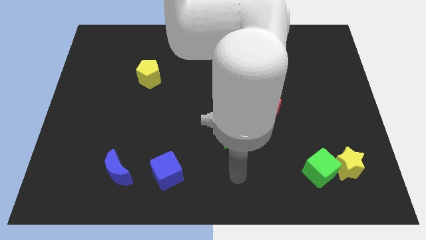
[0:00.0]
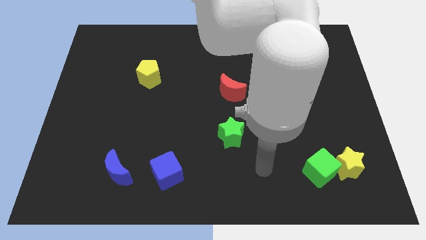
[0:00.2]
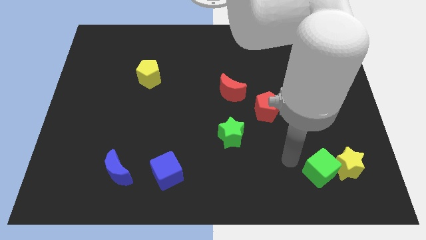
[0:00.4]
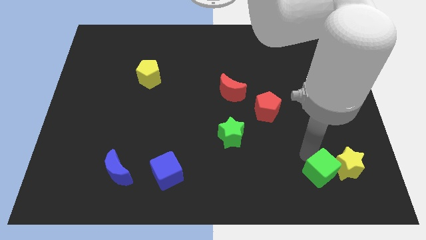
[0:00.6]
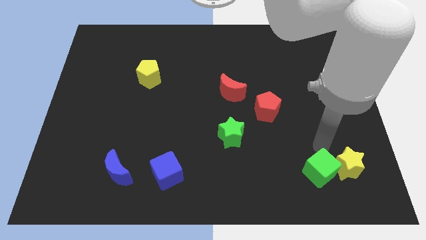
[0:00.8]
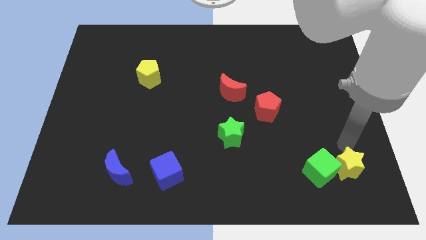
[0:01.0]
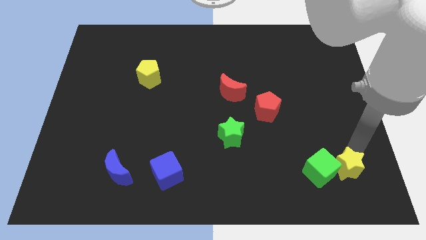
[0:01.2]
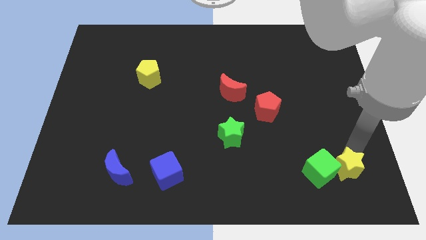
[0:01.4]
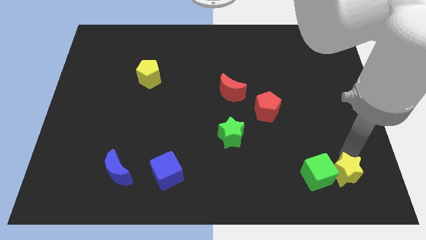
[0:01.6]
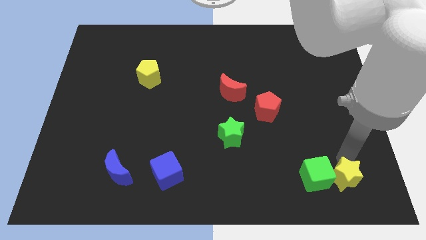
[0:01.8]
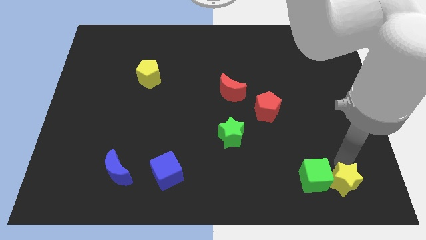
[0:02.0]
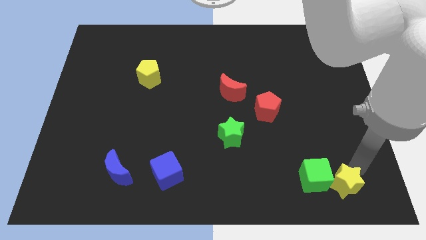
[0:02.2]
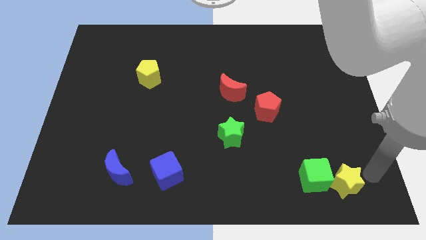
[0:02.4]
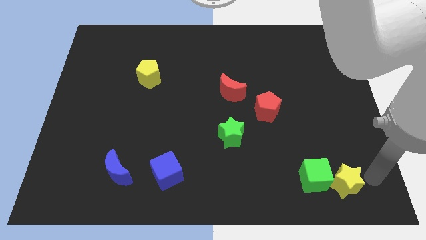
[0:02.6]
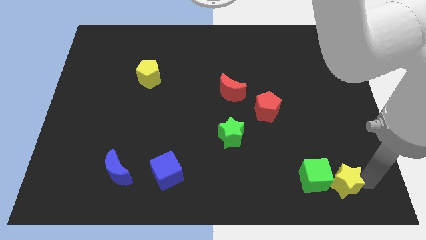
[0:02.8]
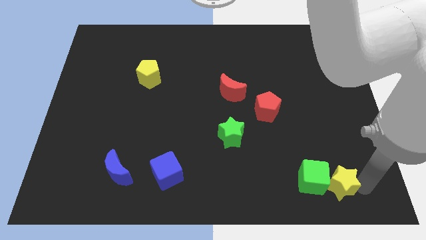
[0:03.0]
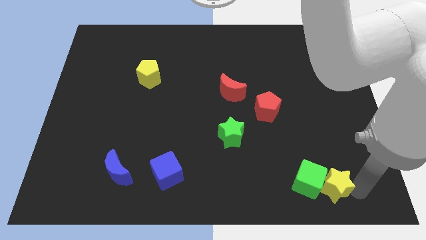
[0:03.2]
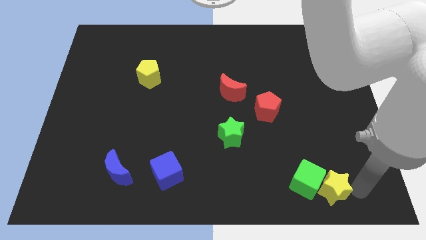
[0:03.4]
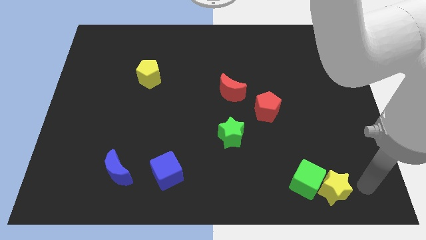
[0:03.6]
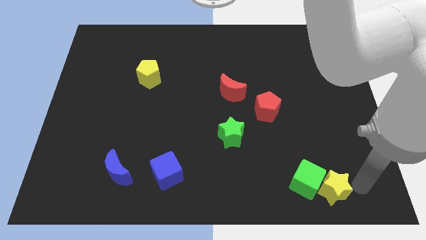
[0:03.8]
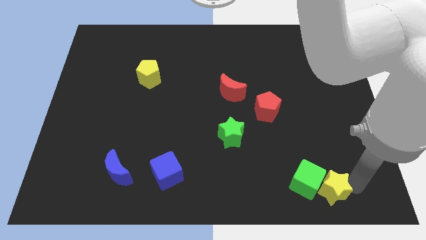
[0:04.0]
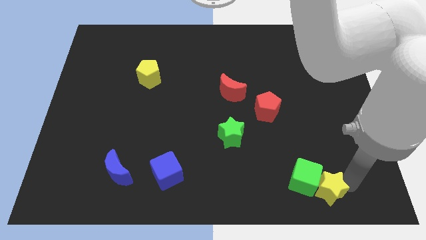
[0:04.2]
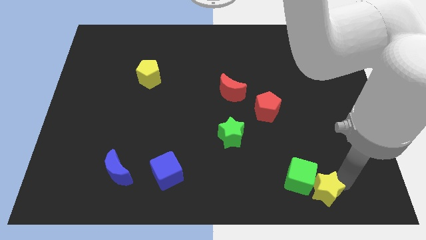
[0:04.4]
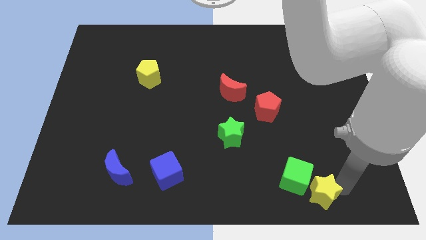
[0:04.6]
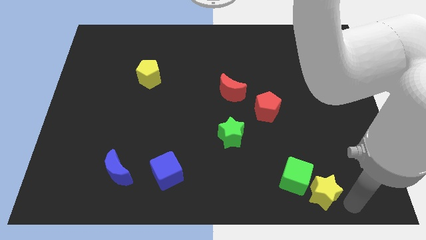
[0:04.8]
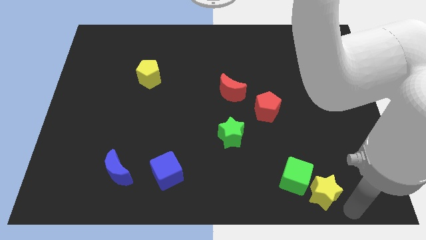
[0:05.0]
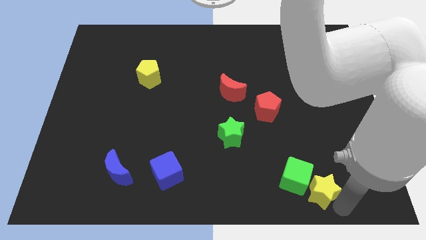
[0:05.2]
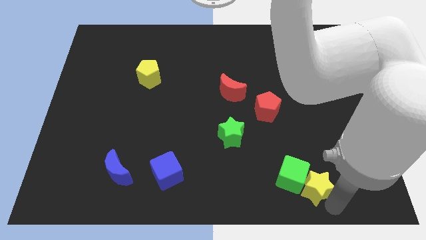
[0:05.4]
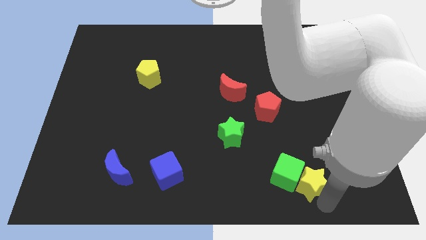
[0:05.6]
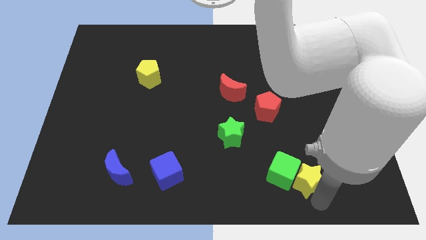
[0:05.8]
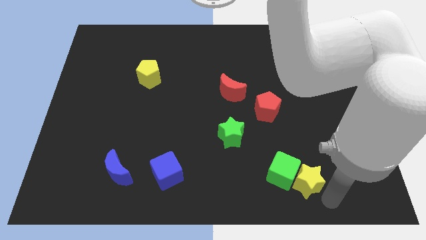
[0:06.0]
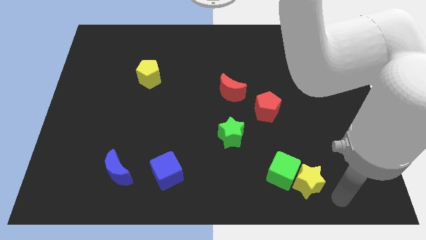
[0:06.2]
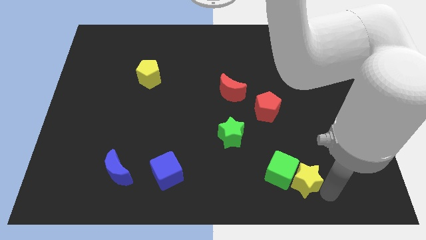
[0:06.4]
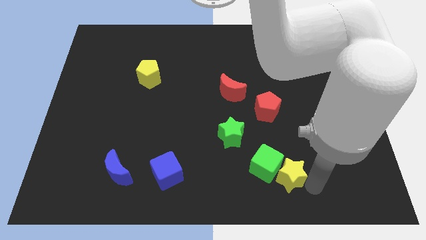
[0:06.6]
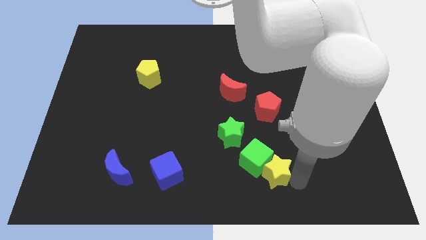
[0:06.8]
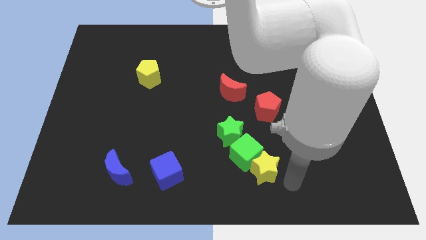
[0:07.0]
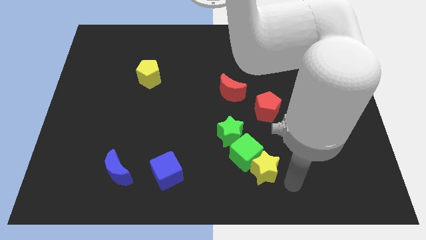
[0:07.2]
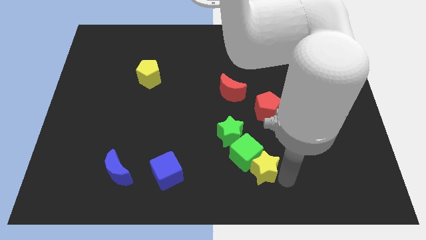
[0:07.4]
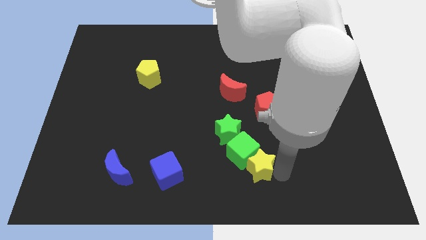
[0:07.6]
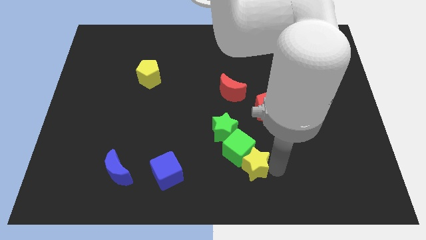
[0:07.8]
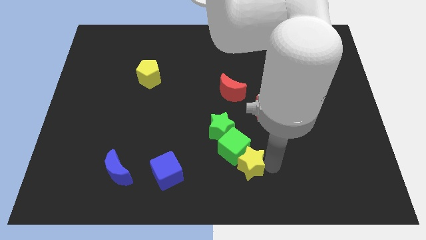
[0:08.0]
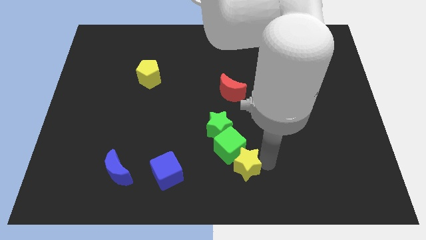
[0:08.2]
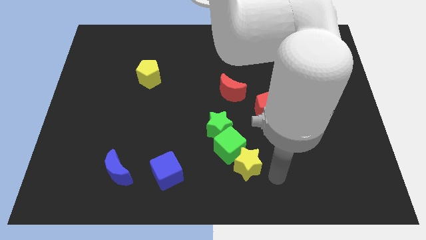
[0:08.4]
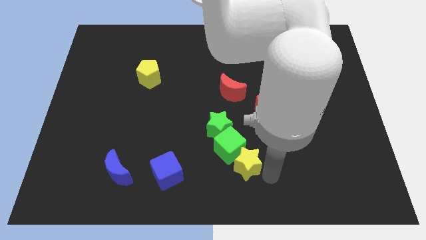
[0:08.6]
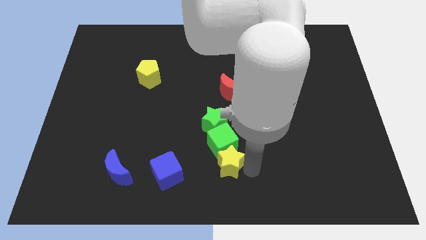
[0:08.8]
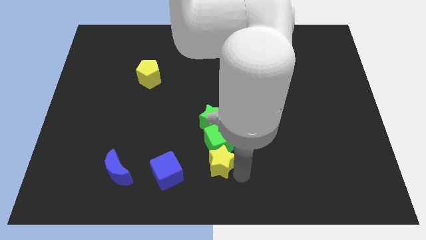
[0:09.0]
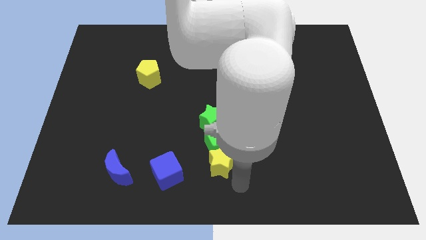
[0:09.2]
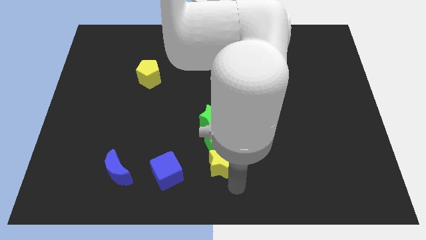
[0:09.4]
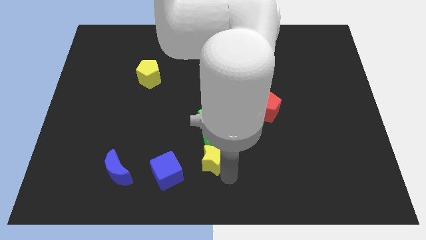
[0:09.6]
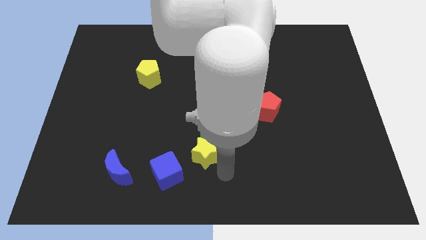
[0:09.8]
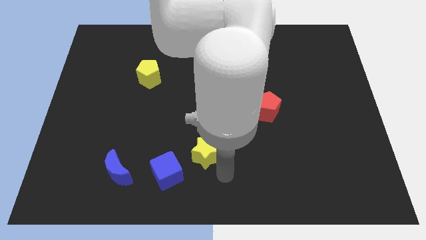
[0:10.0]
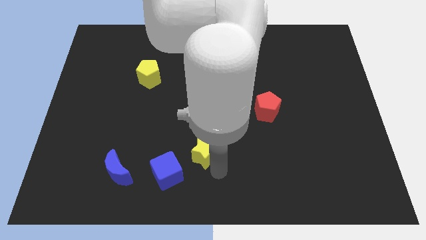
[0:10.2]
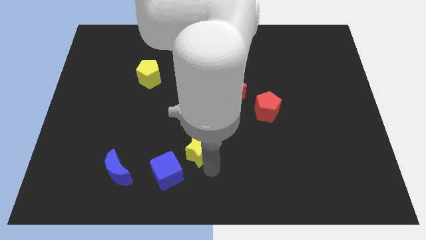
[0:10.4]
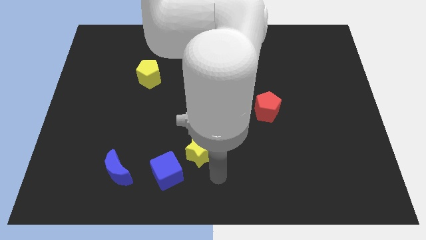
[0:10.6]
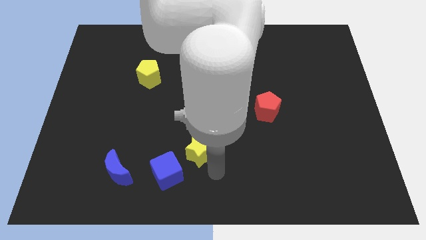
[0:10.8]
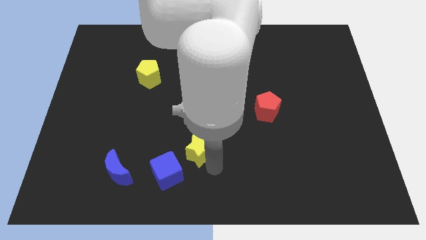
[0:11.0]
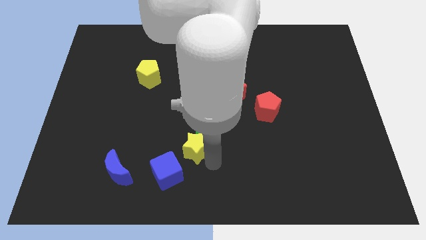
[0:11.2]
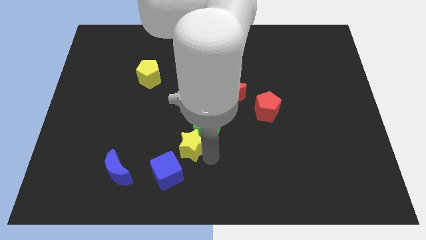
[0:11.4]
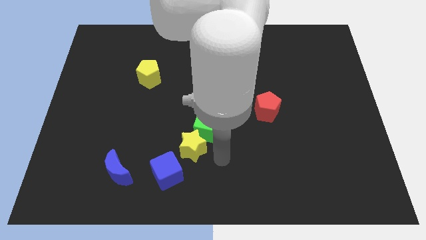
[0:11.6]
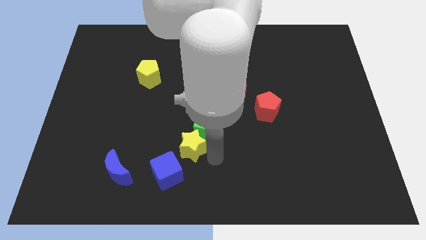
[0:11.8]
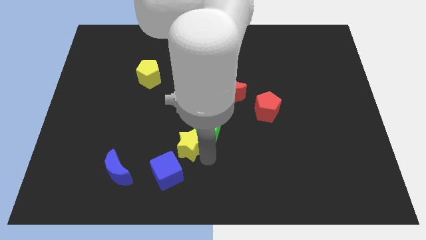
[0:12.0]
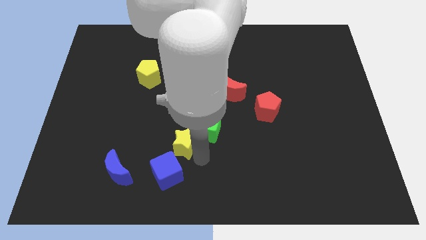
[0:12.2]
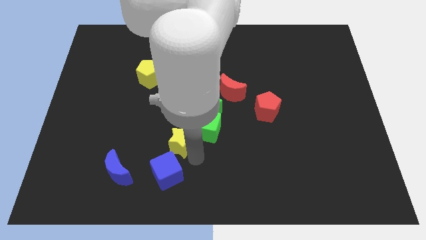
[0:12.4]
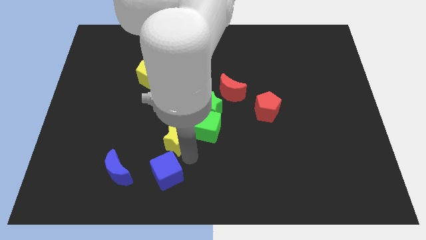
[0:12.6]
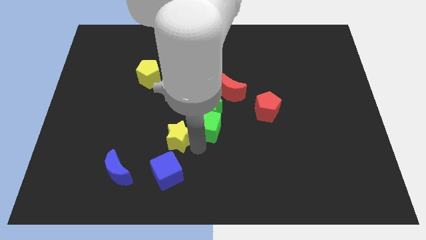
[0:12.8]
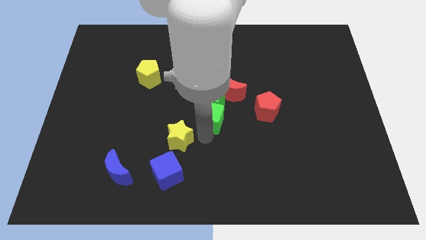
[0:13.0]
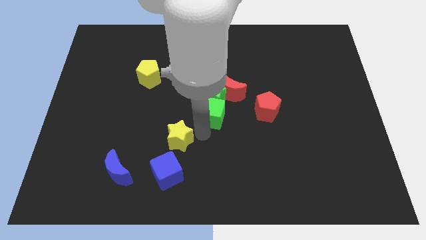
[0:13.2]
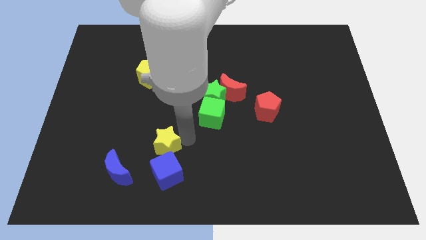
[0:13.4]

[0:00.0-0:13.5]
put the yellow star diagonally up and to the right of the blue moon

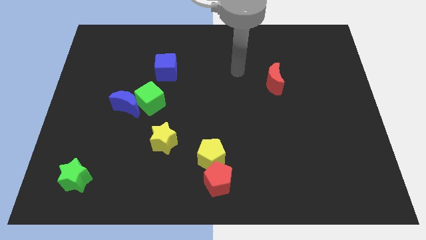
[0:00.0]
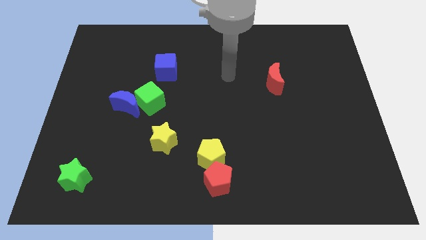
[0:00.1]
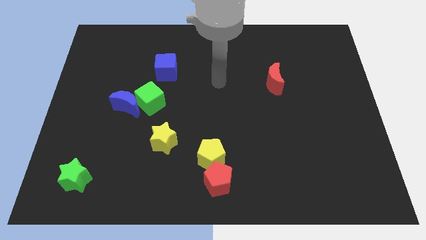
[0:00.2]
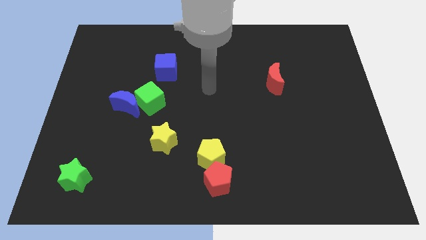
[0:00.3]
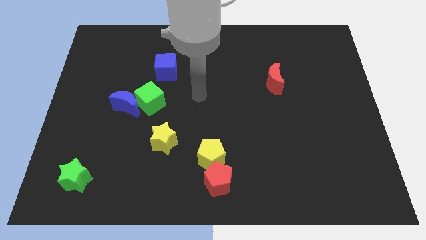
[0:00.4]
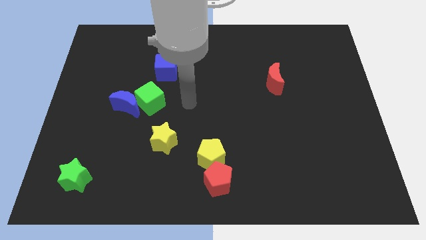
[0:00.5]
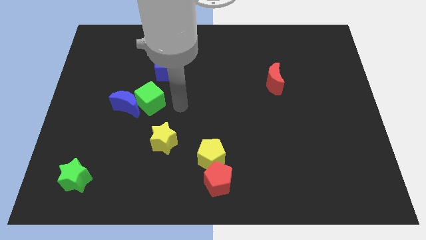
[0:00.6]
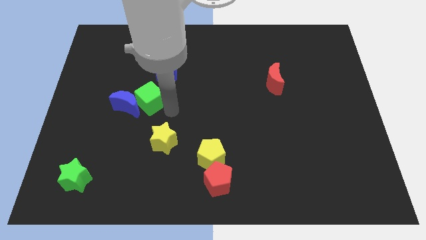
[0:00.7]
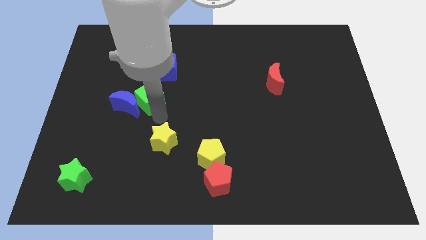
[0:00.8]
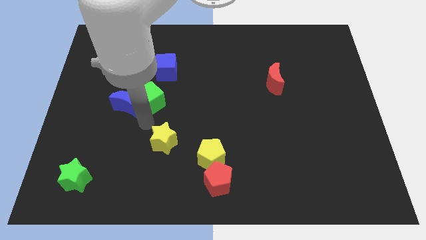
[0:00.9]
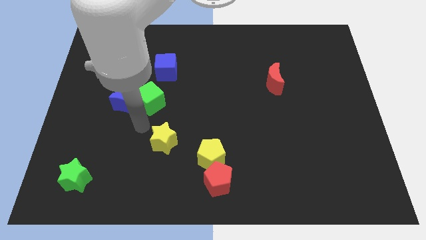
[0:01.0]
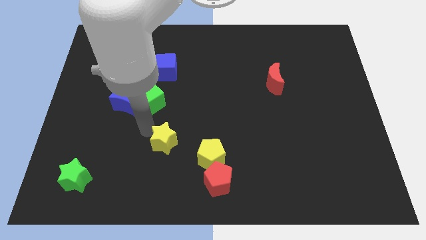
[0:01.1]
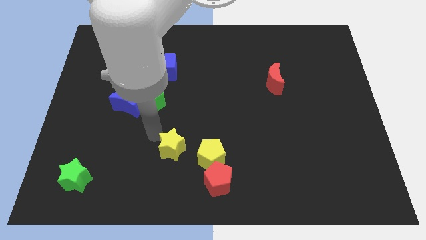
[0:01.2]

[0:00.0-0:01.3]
push the yellow star to the top left side of the red pentagon
